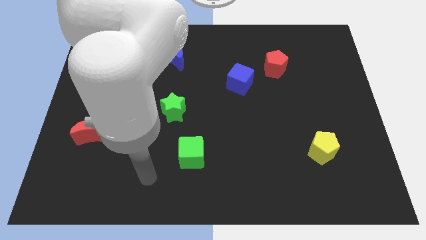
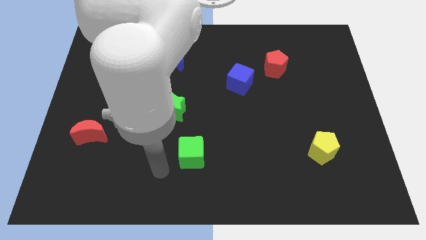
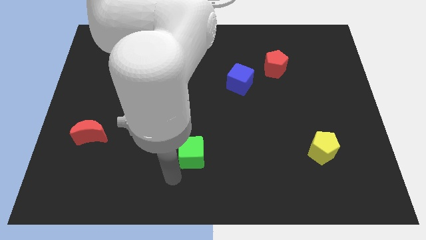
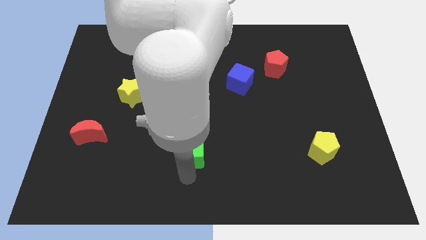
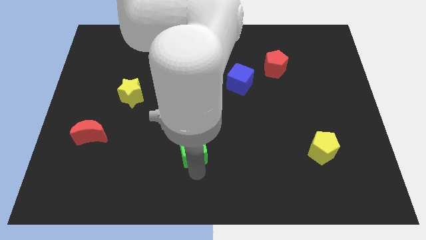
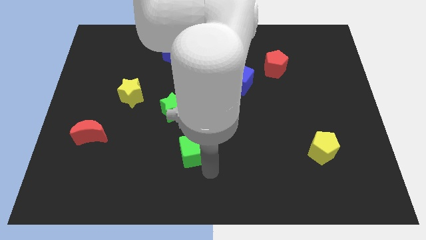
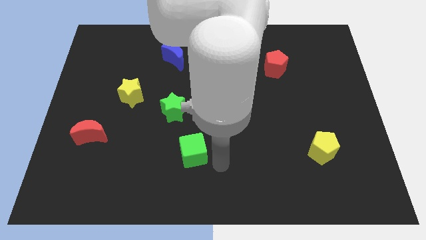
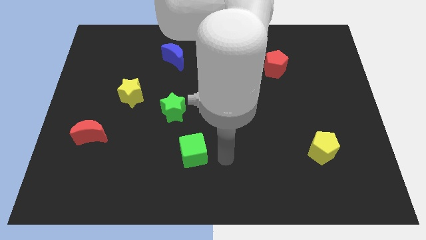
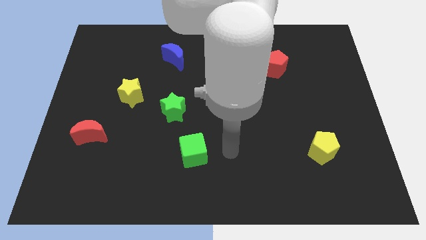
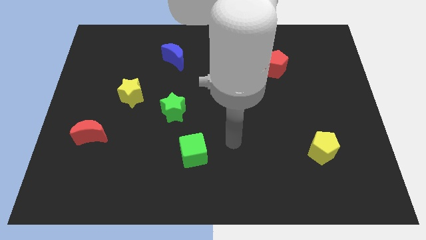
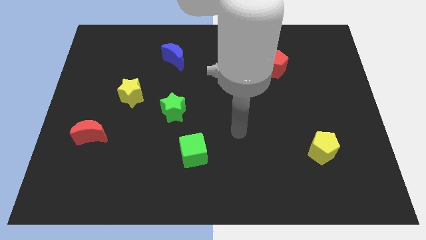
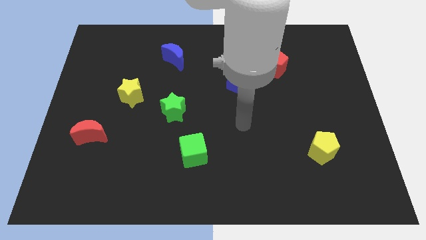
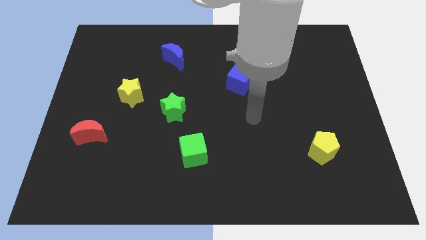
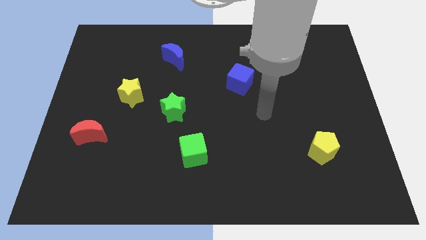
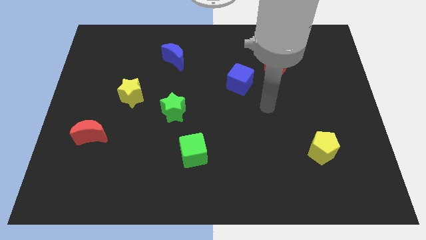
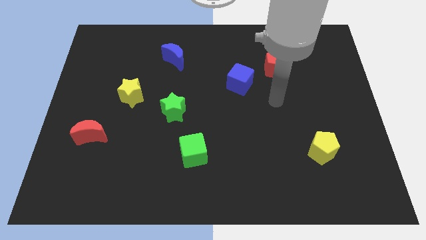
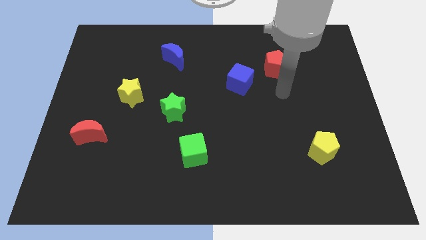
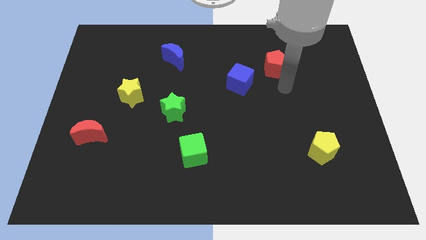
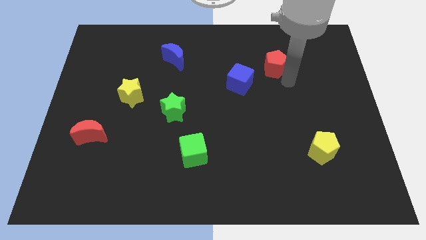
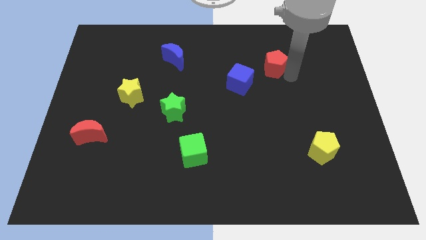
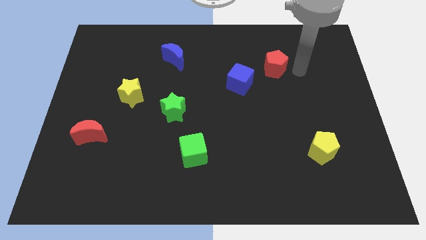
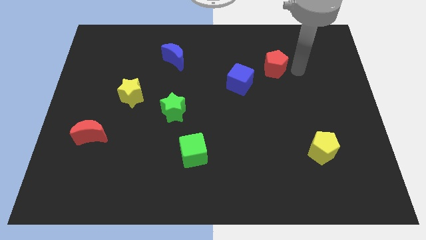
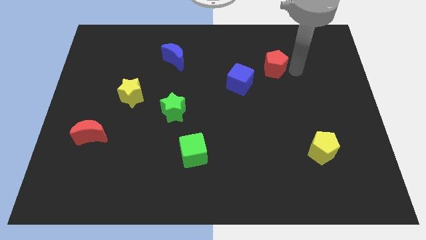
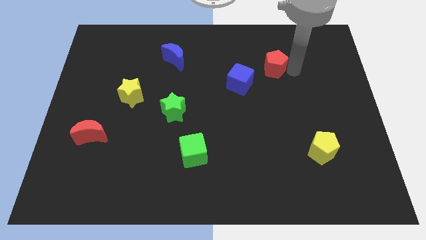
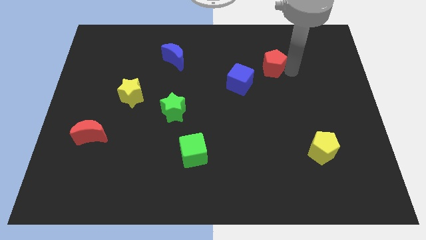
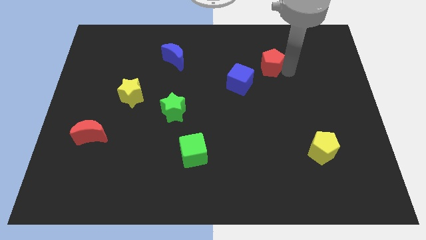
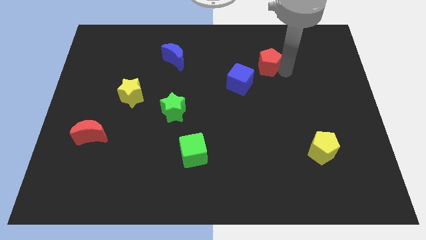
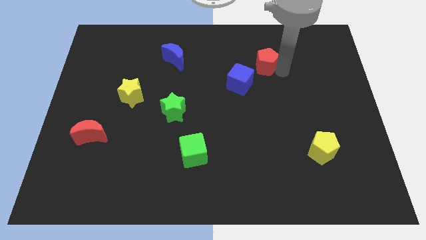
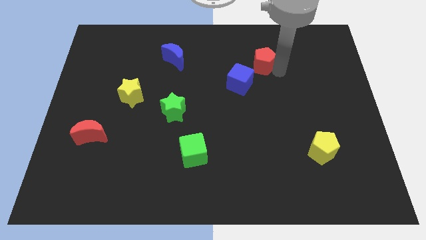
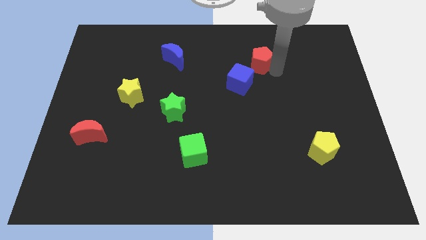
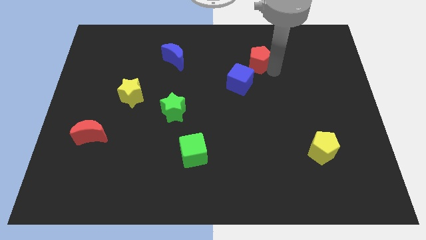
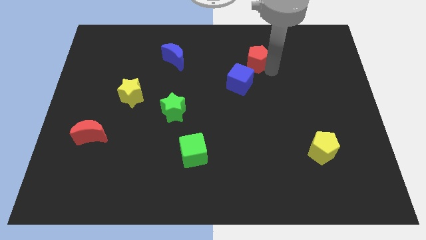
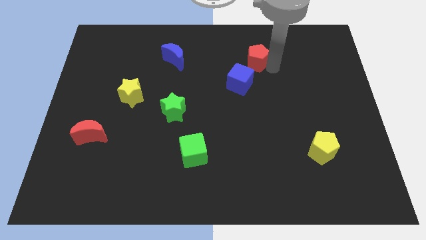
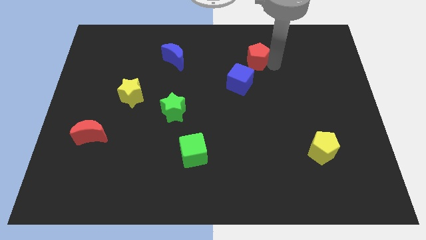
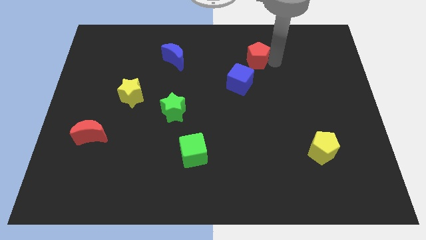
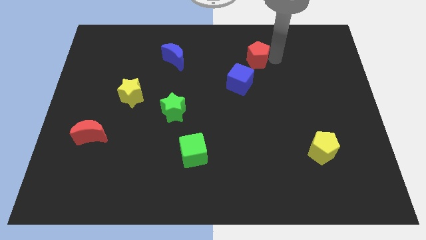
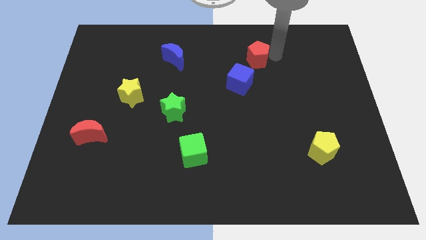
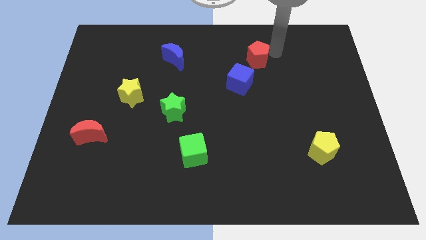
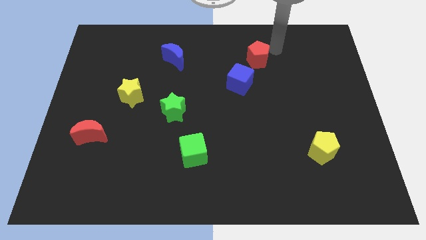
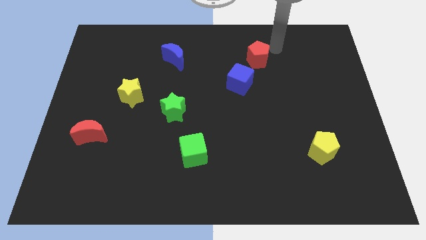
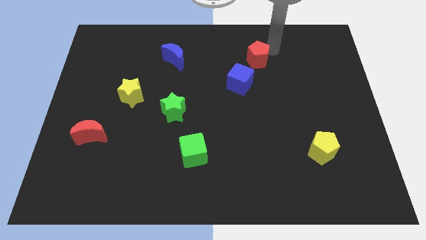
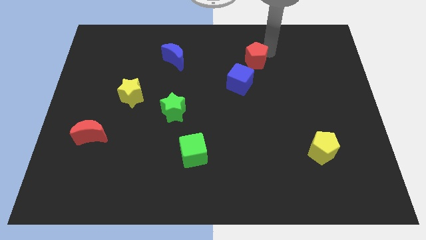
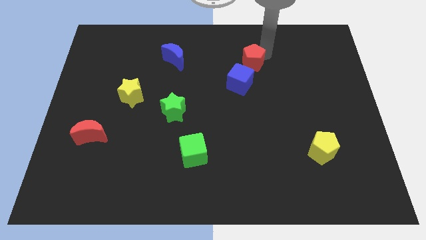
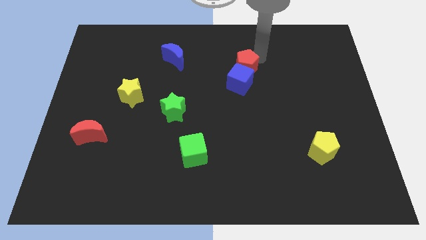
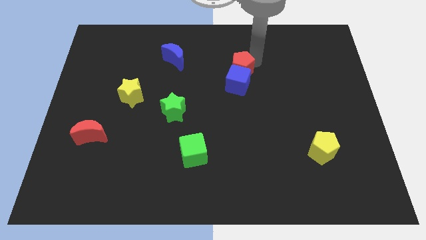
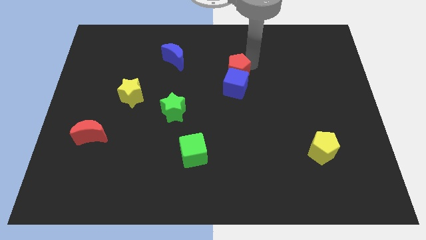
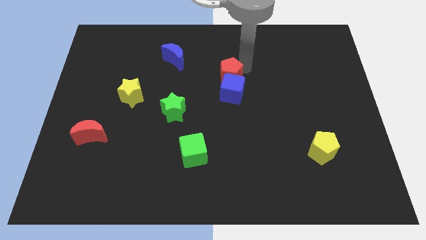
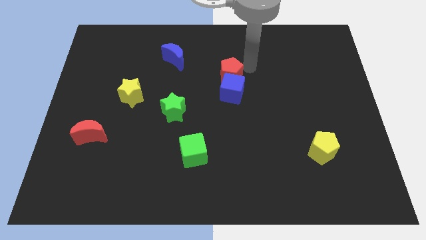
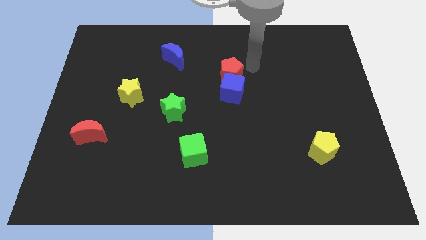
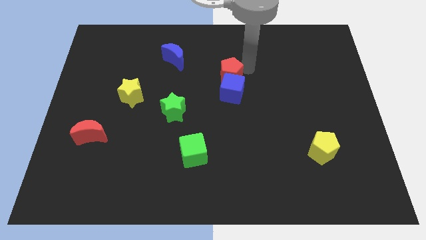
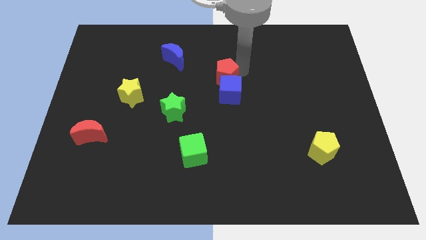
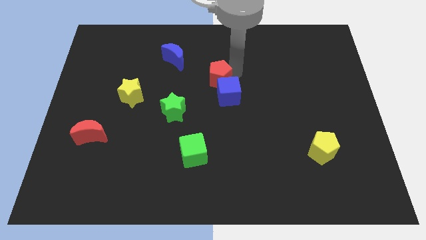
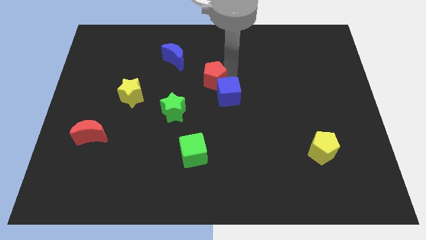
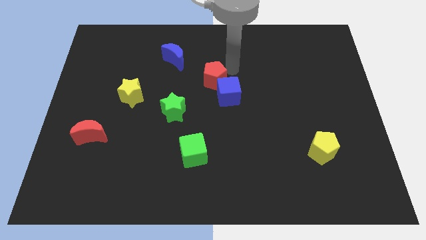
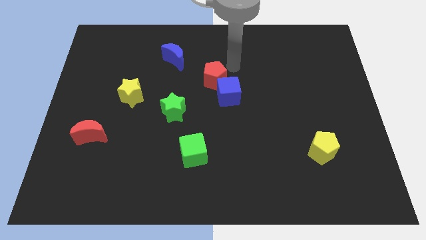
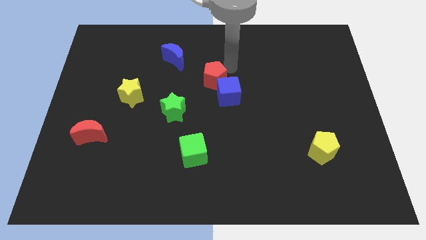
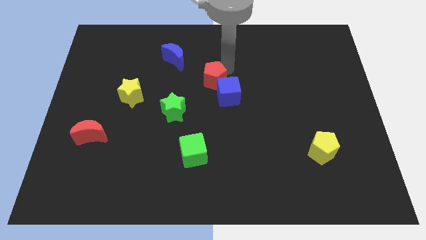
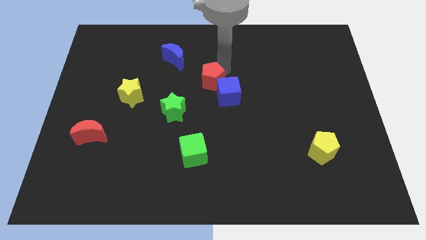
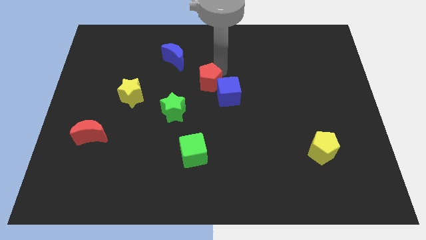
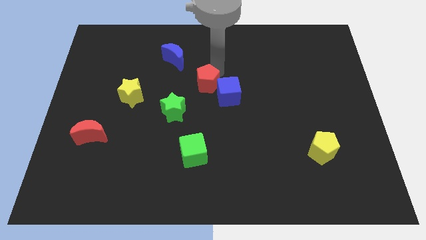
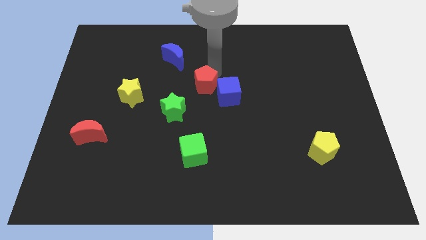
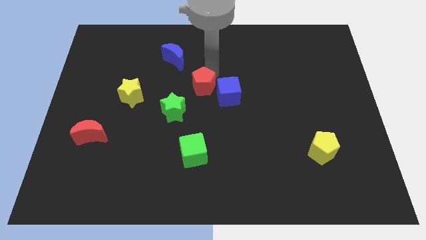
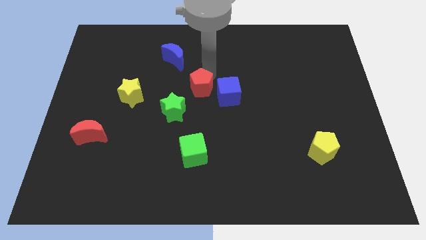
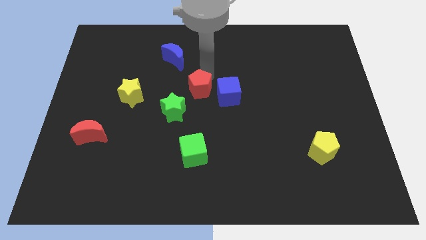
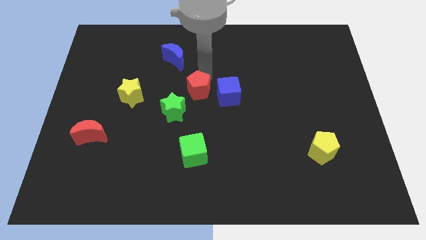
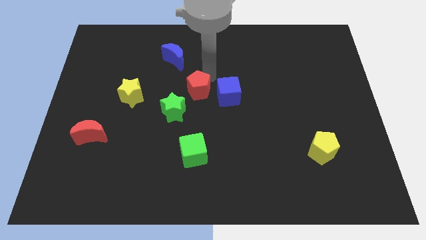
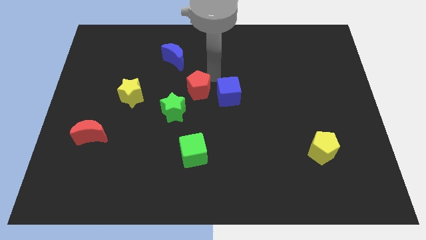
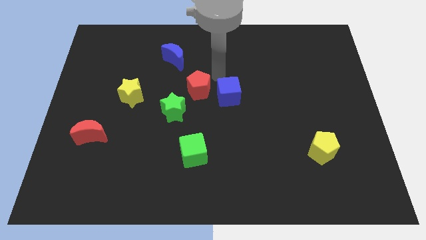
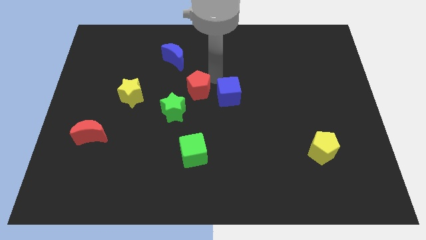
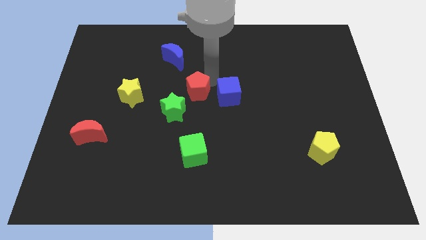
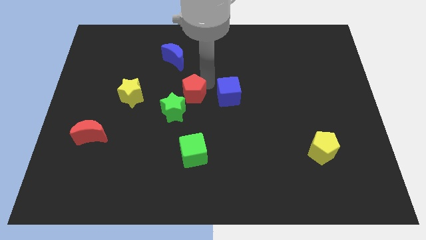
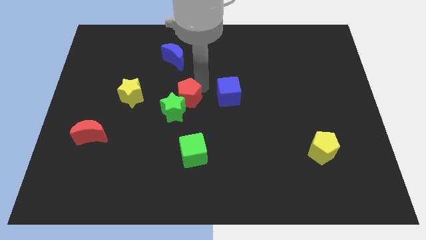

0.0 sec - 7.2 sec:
move the red pentagon to the green star

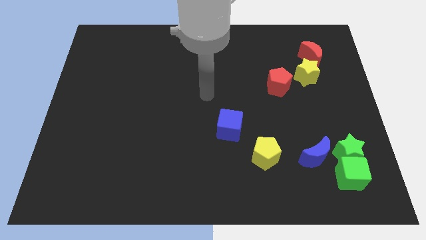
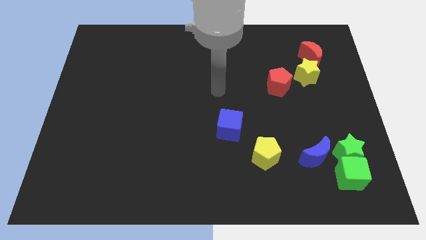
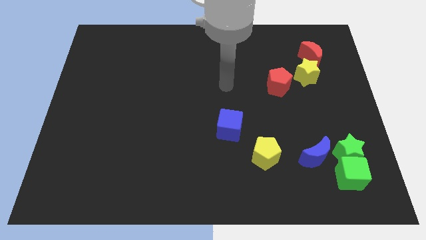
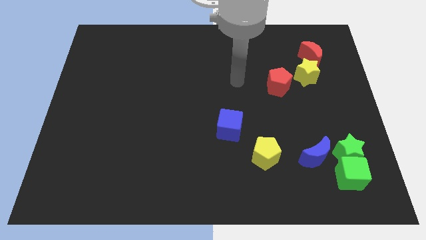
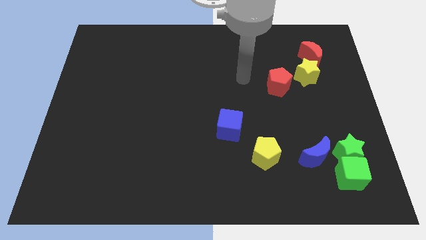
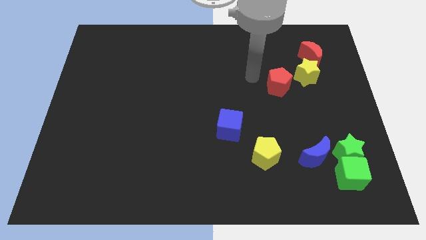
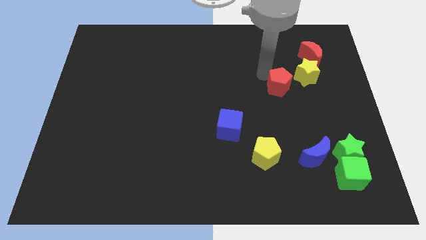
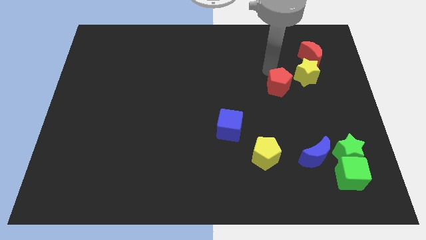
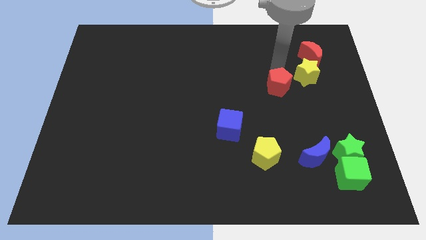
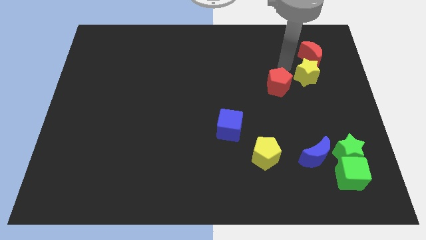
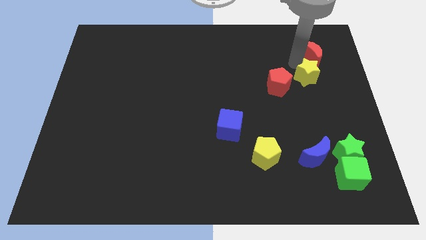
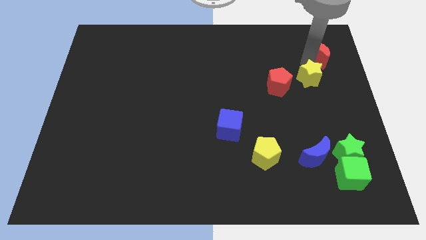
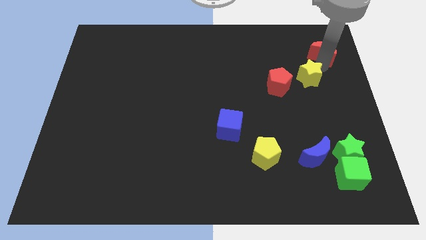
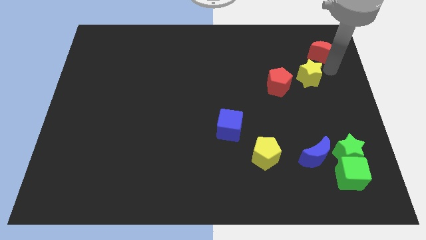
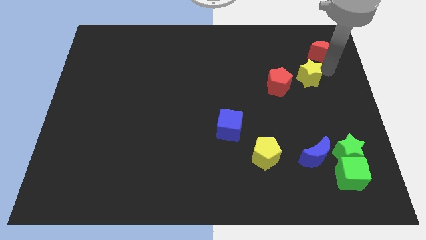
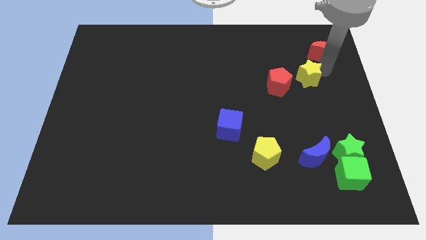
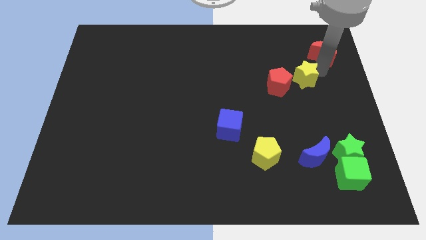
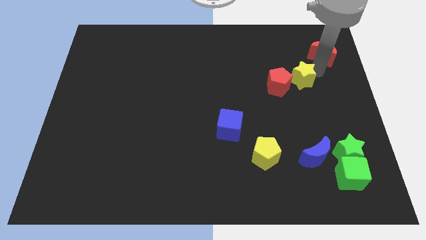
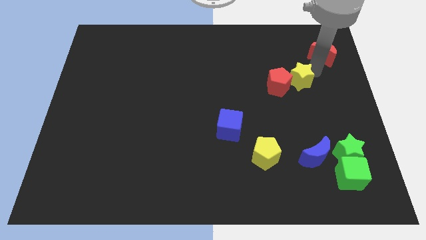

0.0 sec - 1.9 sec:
move the yellow star close to the red pentagon
